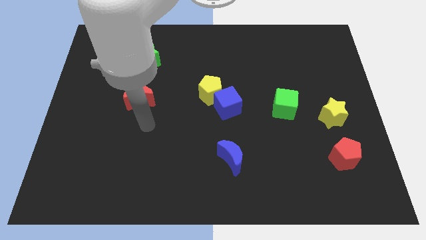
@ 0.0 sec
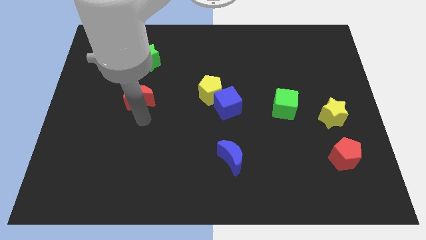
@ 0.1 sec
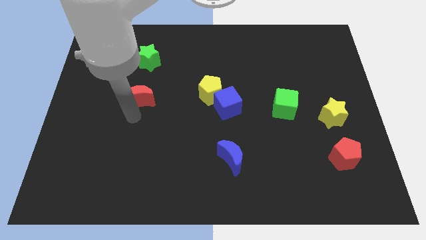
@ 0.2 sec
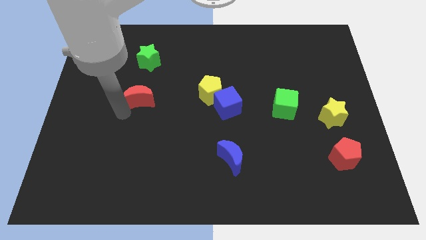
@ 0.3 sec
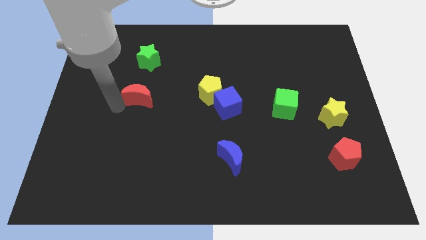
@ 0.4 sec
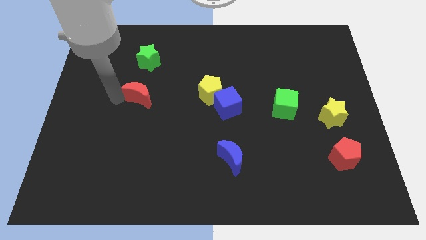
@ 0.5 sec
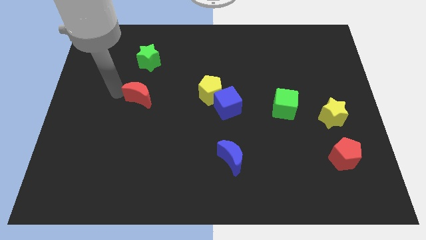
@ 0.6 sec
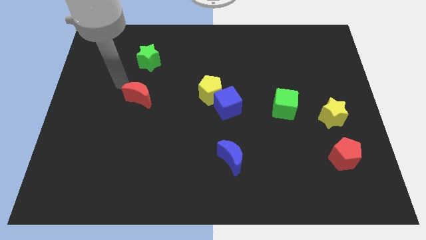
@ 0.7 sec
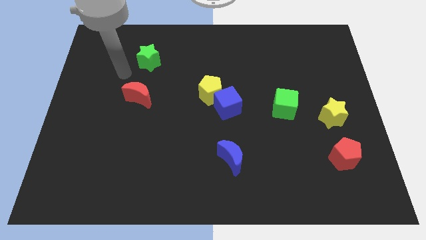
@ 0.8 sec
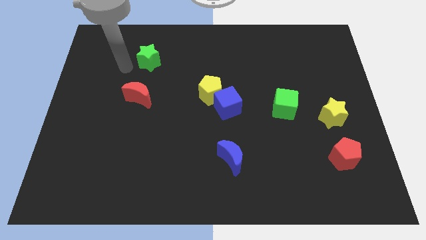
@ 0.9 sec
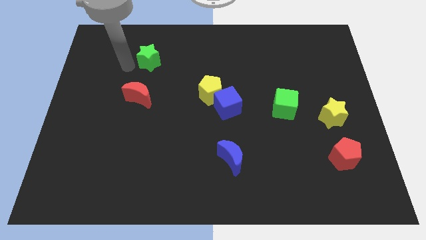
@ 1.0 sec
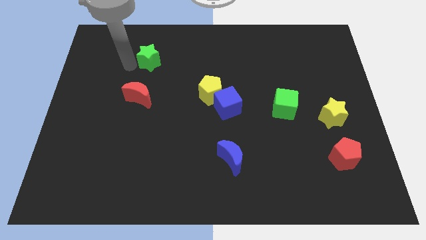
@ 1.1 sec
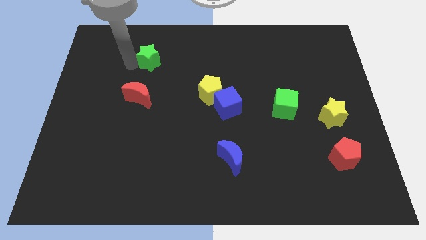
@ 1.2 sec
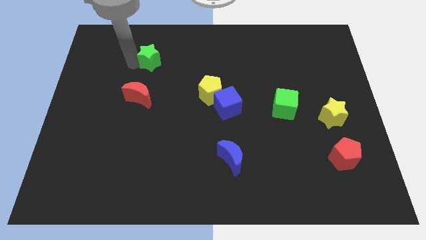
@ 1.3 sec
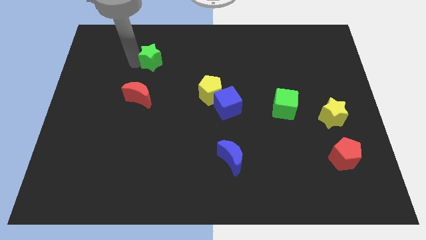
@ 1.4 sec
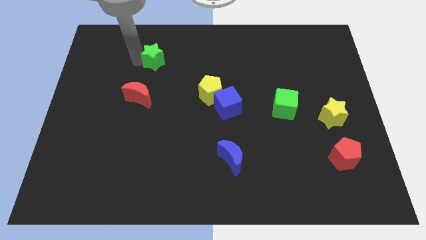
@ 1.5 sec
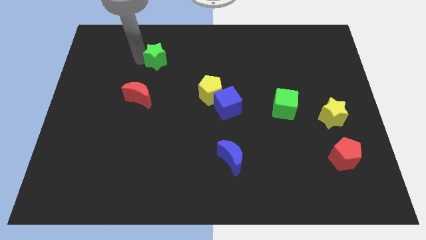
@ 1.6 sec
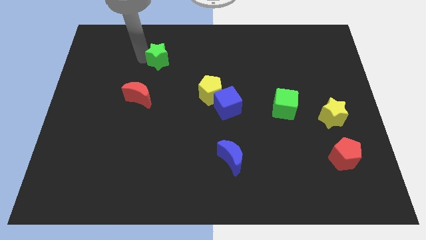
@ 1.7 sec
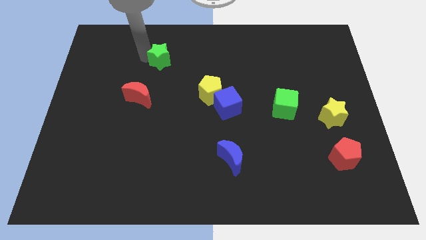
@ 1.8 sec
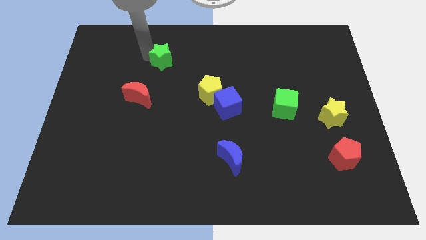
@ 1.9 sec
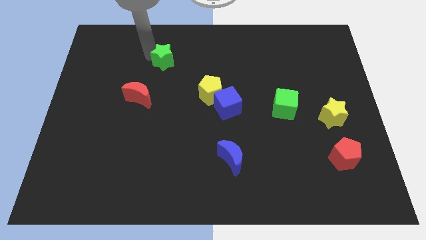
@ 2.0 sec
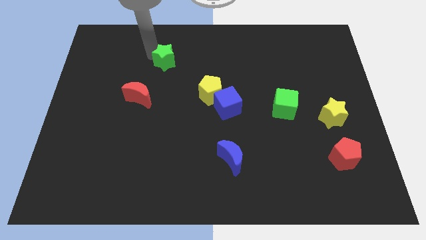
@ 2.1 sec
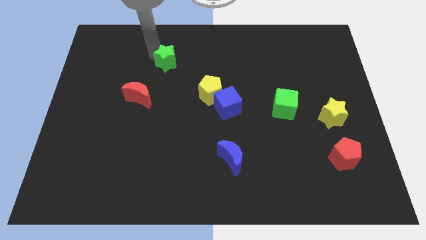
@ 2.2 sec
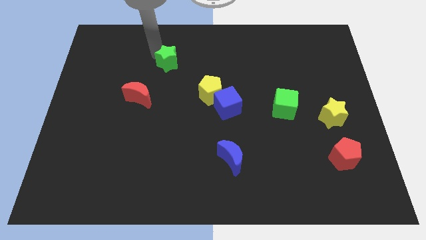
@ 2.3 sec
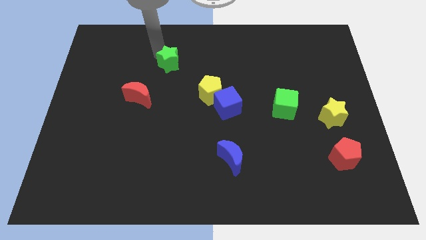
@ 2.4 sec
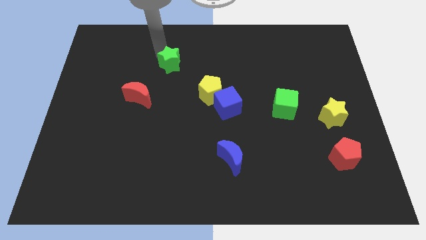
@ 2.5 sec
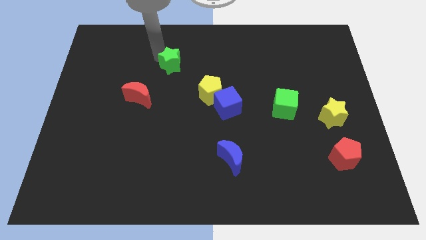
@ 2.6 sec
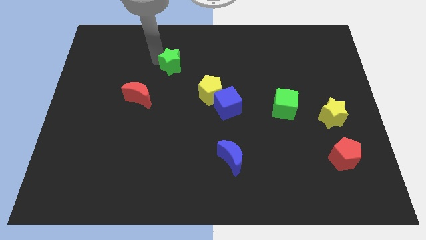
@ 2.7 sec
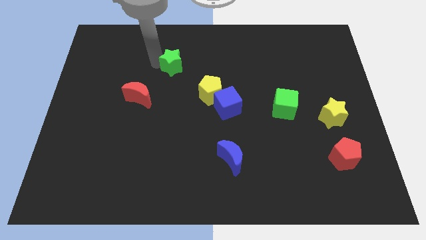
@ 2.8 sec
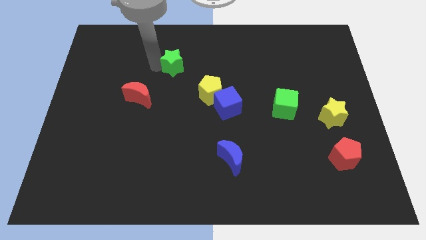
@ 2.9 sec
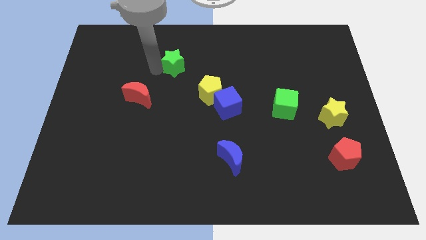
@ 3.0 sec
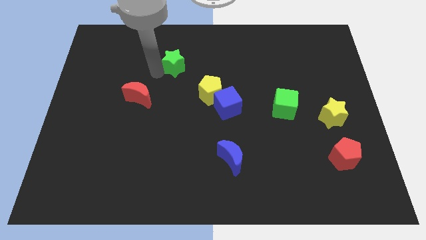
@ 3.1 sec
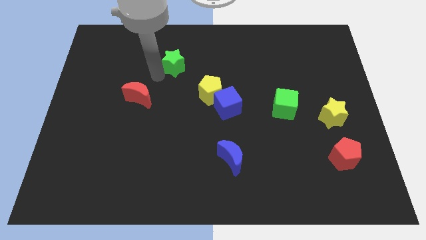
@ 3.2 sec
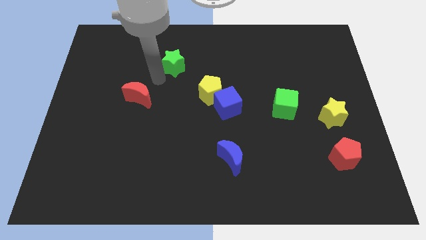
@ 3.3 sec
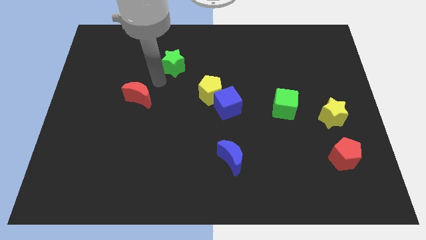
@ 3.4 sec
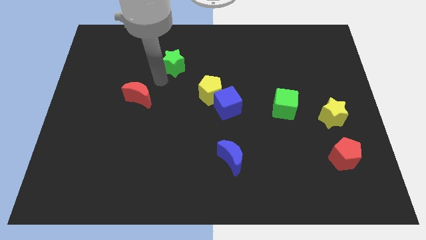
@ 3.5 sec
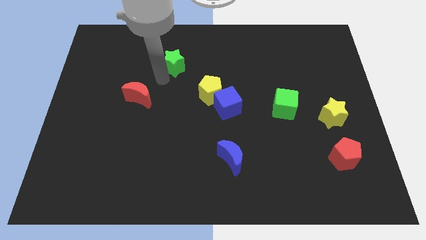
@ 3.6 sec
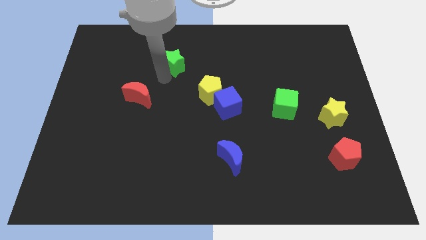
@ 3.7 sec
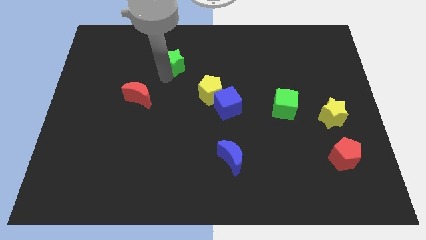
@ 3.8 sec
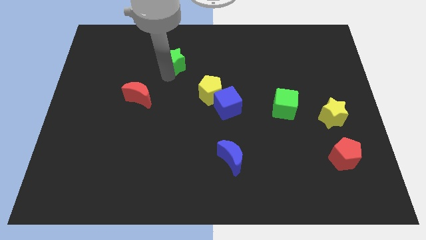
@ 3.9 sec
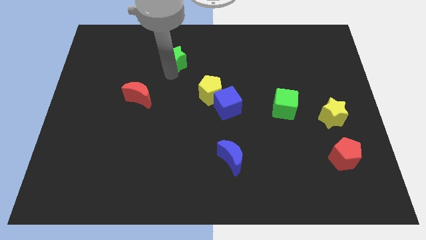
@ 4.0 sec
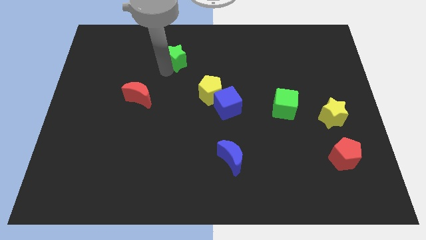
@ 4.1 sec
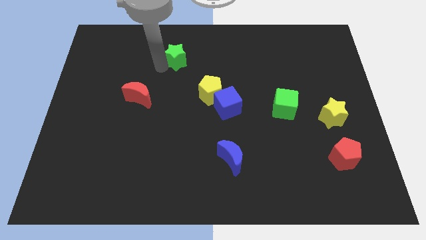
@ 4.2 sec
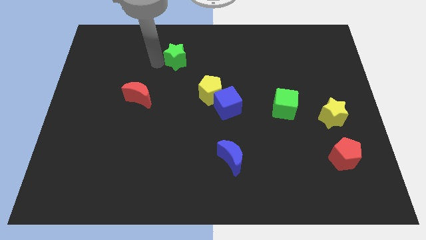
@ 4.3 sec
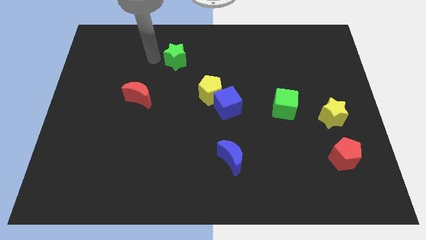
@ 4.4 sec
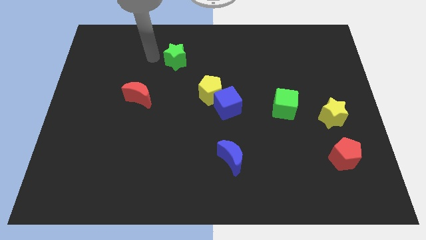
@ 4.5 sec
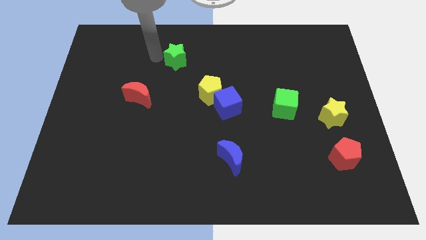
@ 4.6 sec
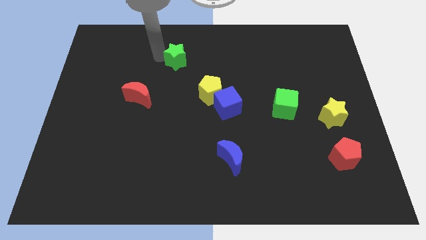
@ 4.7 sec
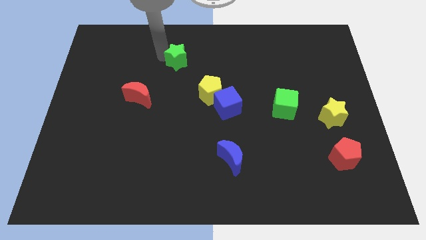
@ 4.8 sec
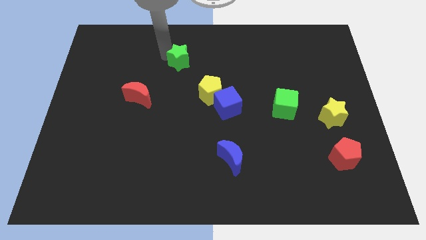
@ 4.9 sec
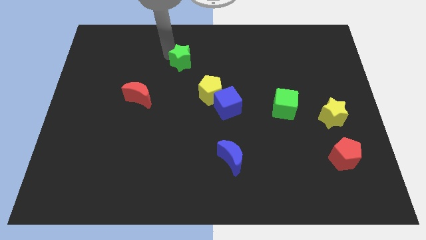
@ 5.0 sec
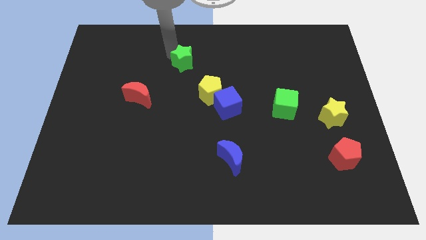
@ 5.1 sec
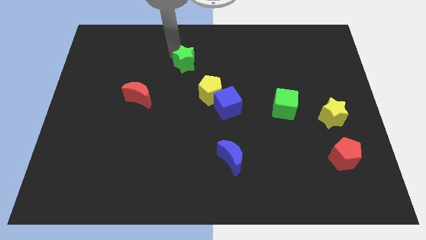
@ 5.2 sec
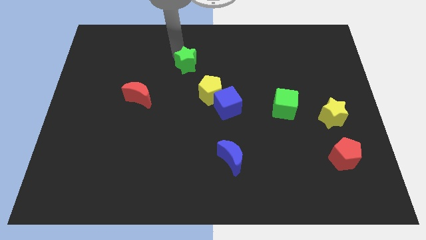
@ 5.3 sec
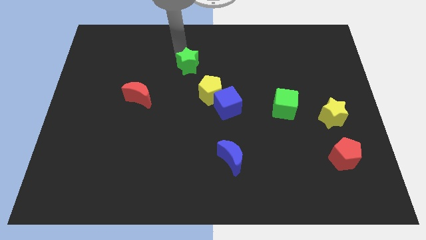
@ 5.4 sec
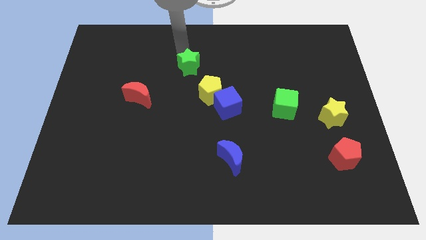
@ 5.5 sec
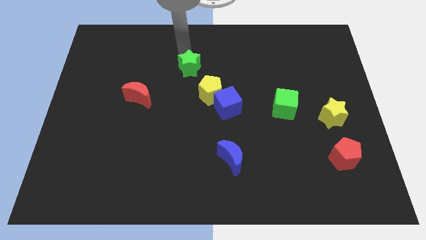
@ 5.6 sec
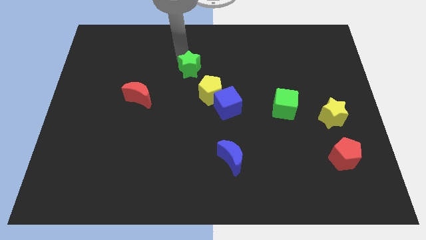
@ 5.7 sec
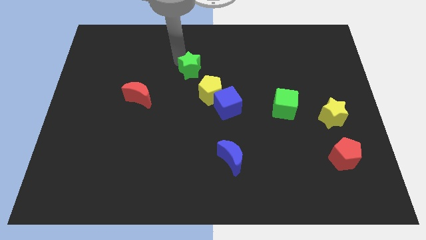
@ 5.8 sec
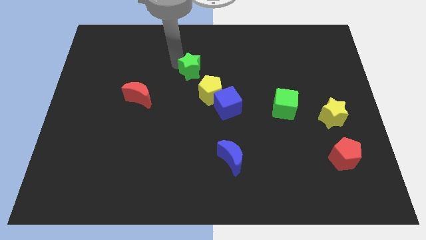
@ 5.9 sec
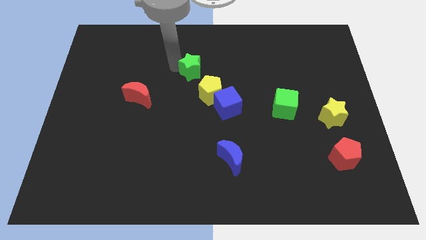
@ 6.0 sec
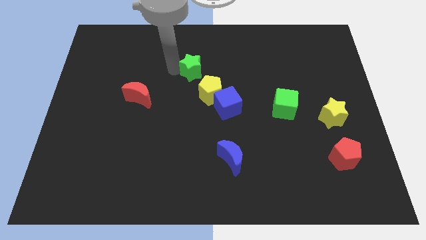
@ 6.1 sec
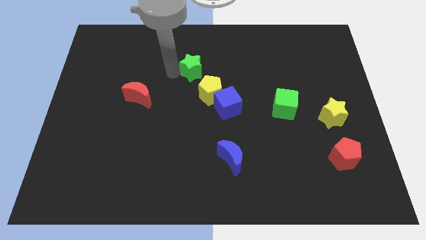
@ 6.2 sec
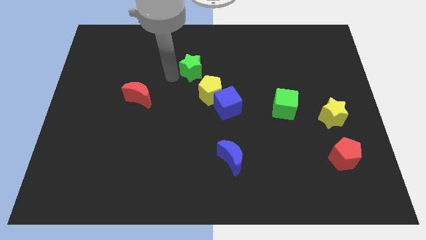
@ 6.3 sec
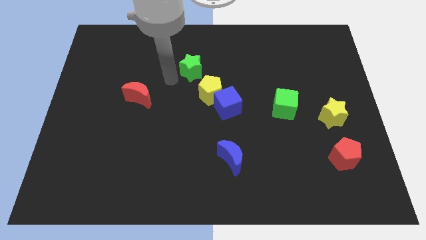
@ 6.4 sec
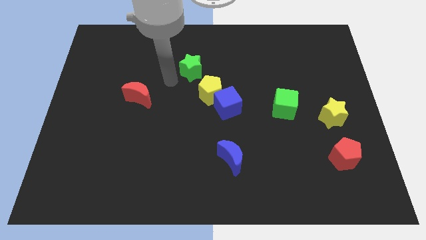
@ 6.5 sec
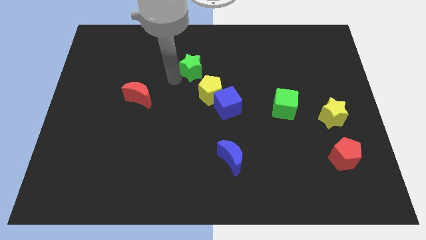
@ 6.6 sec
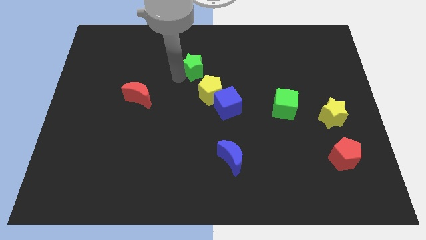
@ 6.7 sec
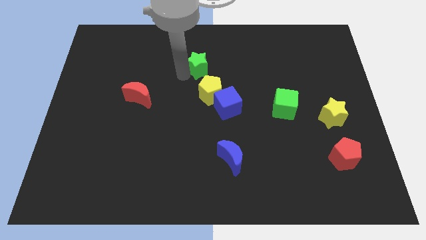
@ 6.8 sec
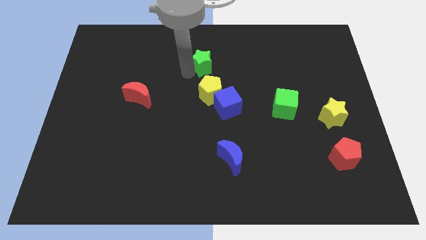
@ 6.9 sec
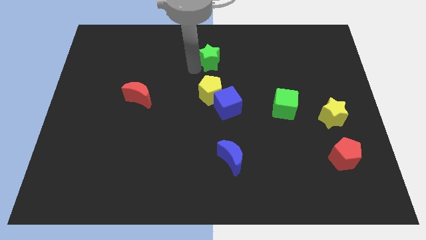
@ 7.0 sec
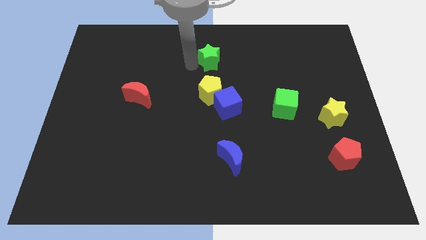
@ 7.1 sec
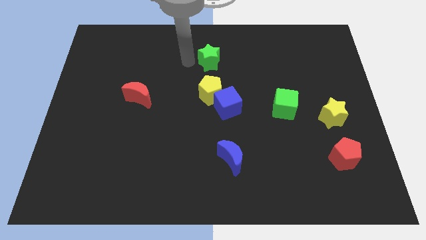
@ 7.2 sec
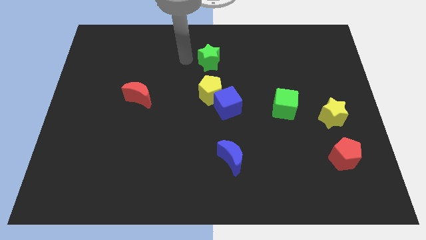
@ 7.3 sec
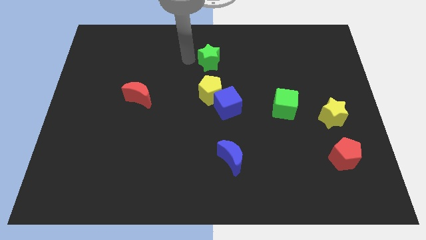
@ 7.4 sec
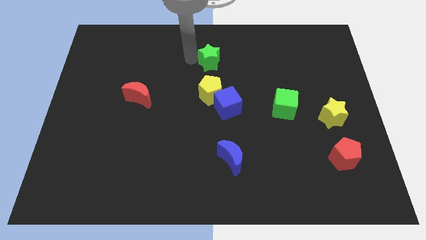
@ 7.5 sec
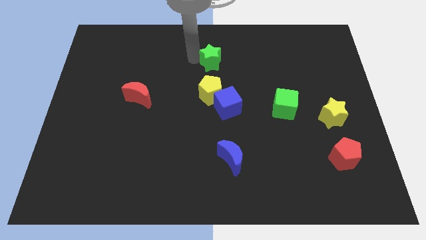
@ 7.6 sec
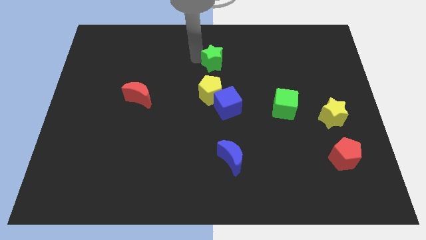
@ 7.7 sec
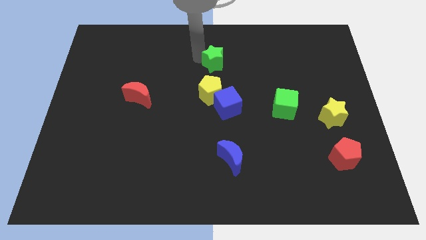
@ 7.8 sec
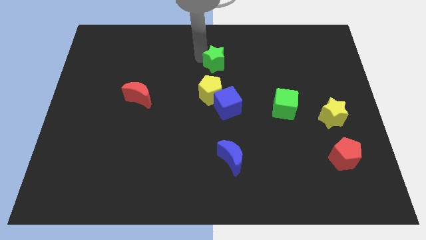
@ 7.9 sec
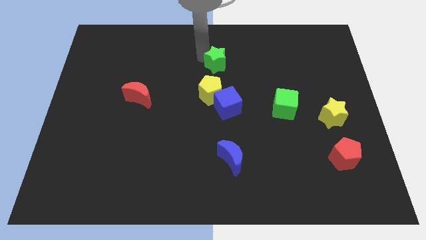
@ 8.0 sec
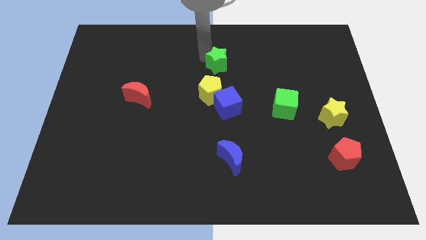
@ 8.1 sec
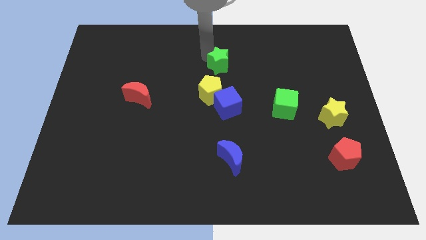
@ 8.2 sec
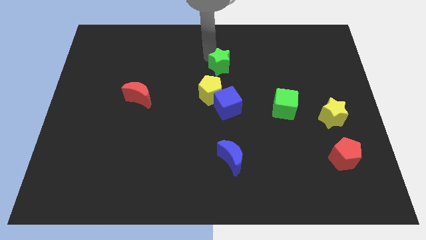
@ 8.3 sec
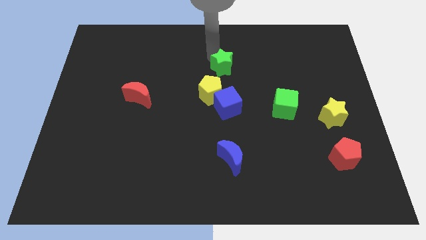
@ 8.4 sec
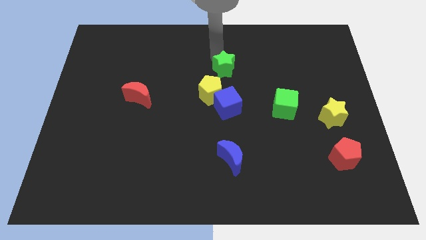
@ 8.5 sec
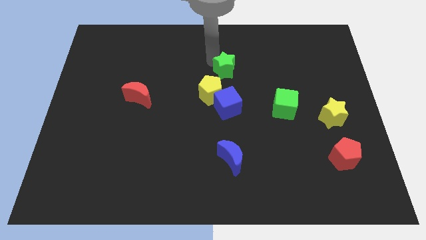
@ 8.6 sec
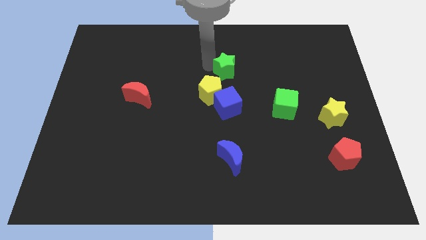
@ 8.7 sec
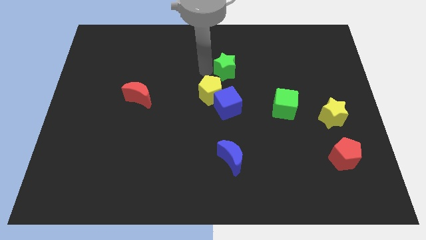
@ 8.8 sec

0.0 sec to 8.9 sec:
slide the green star to the right
